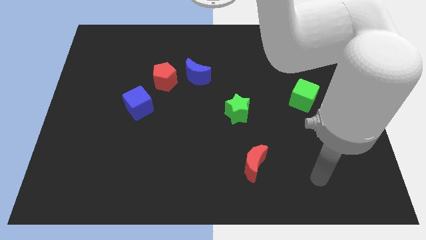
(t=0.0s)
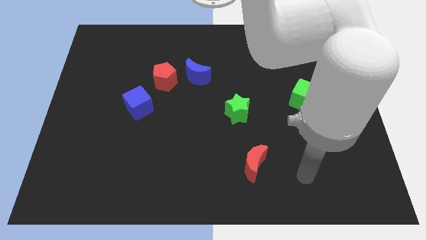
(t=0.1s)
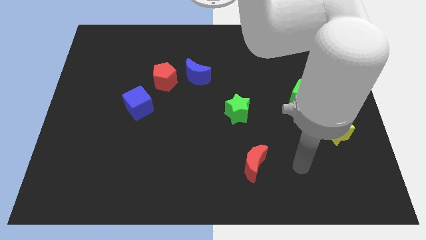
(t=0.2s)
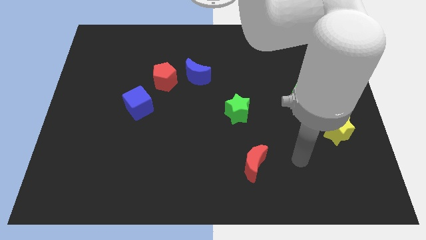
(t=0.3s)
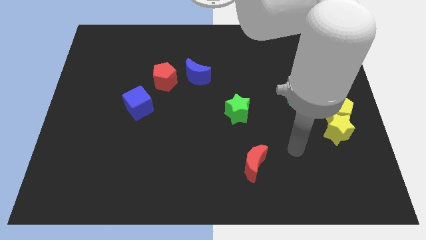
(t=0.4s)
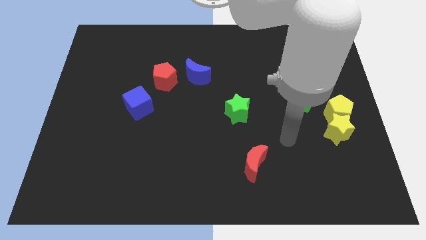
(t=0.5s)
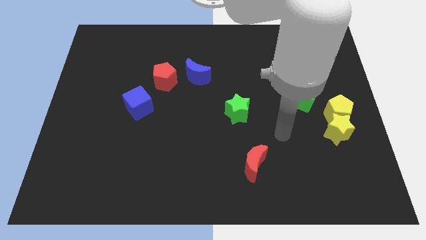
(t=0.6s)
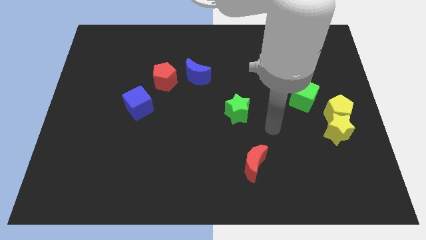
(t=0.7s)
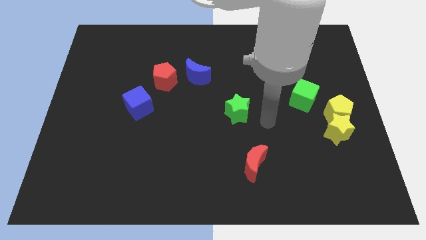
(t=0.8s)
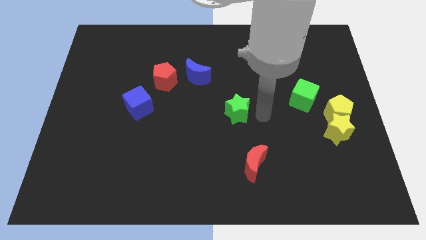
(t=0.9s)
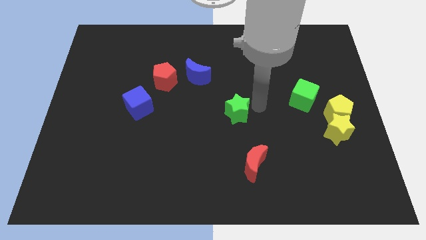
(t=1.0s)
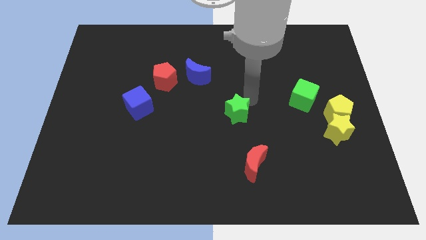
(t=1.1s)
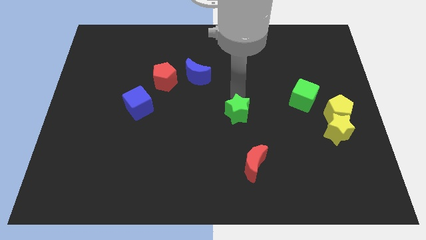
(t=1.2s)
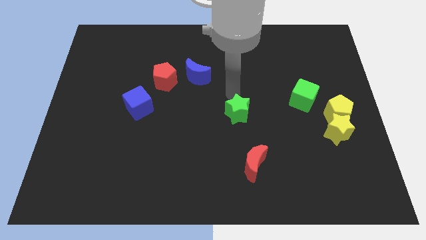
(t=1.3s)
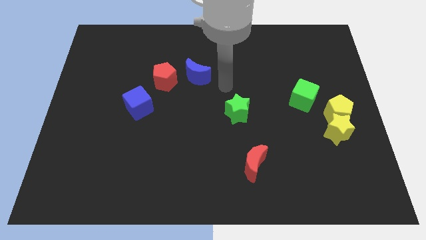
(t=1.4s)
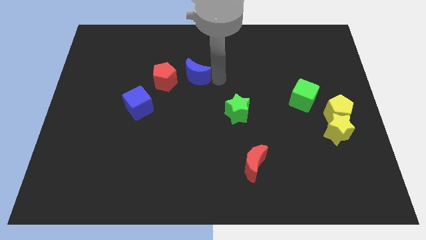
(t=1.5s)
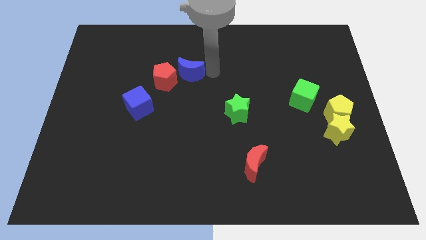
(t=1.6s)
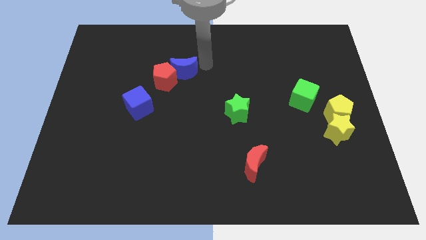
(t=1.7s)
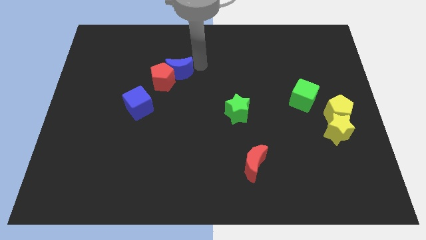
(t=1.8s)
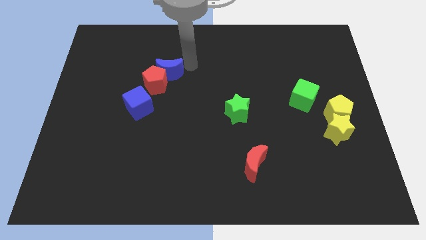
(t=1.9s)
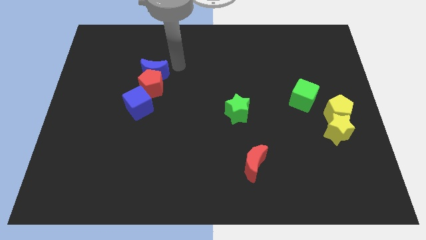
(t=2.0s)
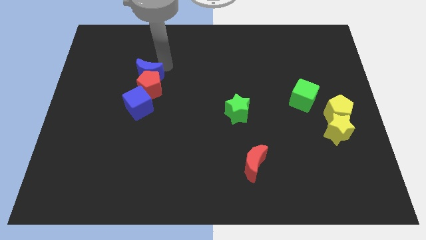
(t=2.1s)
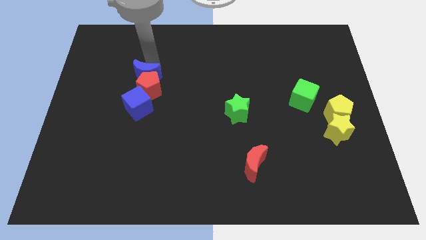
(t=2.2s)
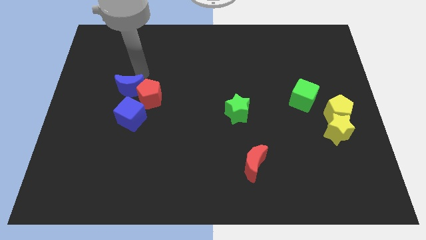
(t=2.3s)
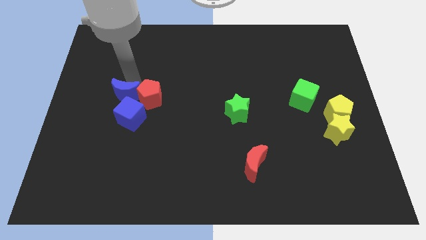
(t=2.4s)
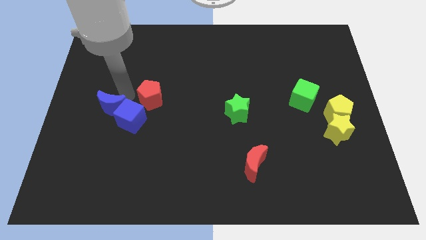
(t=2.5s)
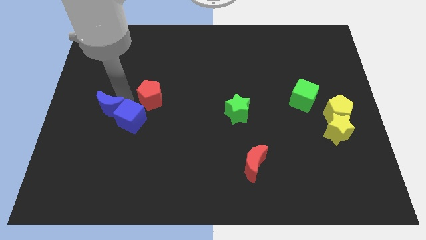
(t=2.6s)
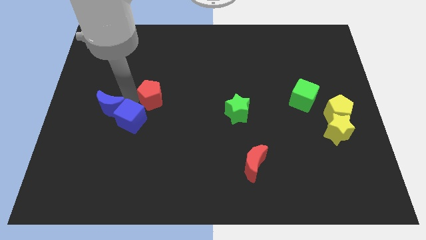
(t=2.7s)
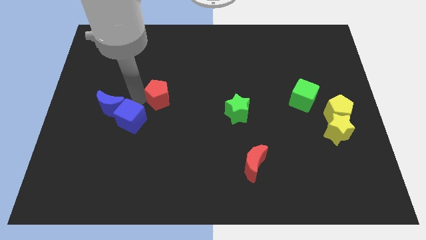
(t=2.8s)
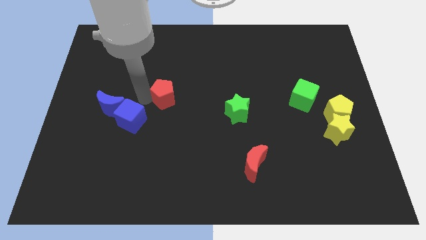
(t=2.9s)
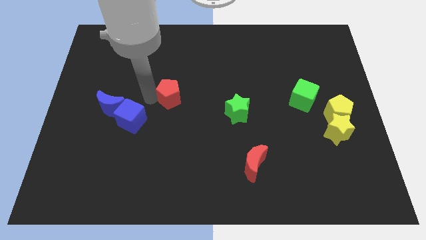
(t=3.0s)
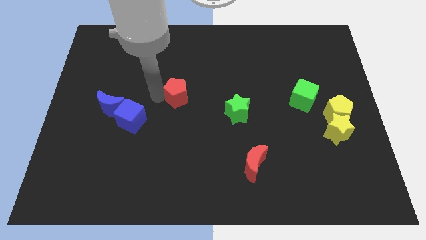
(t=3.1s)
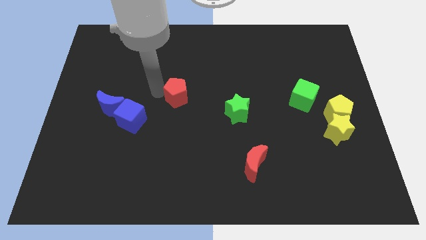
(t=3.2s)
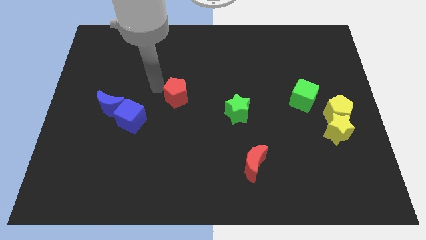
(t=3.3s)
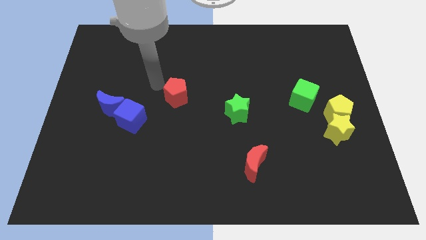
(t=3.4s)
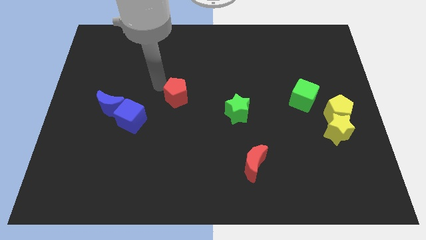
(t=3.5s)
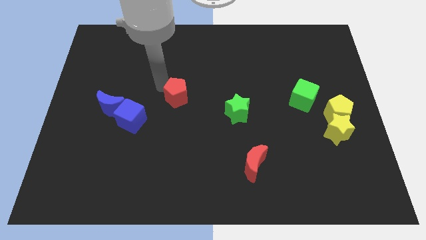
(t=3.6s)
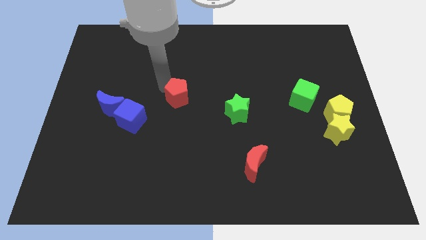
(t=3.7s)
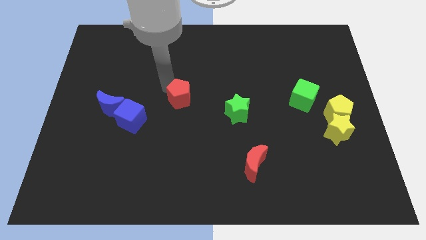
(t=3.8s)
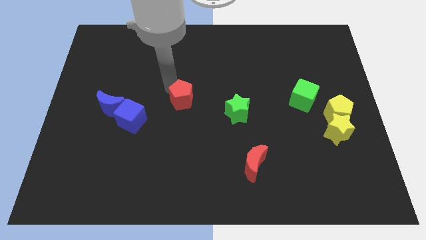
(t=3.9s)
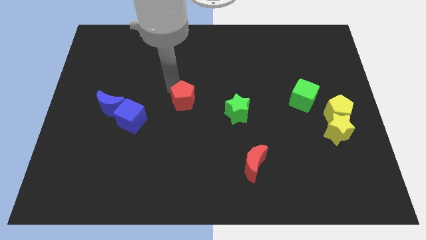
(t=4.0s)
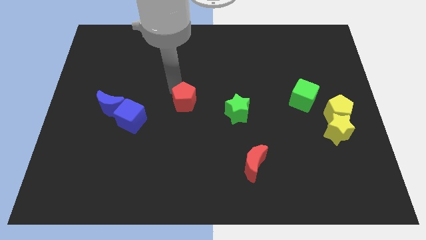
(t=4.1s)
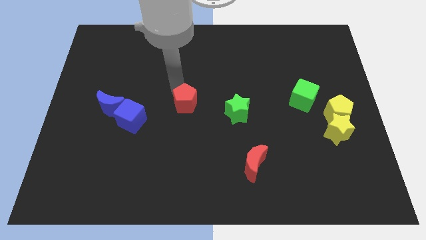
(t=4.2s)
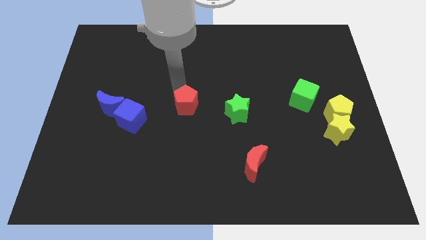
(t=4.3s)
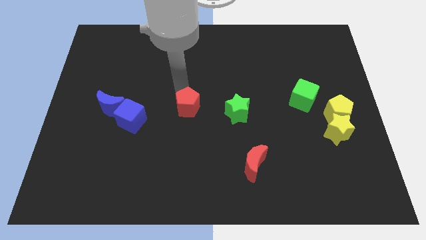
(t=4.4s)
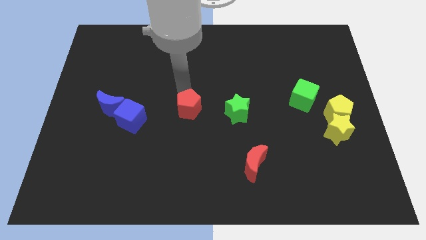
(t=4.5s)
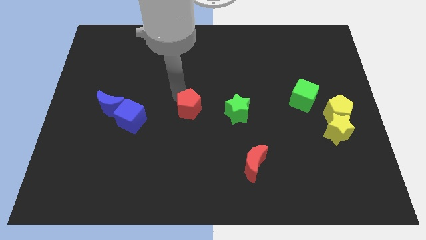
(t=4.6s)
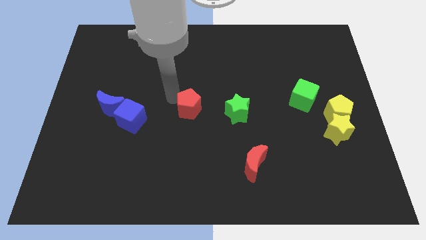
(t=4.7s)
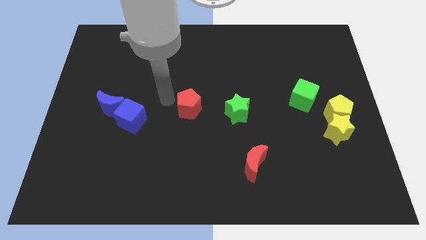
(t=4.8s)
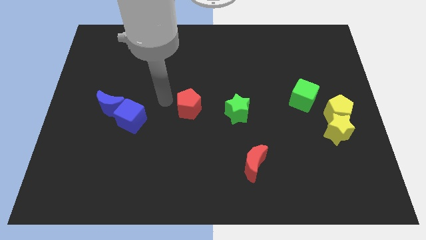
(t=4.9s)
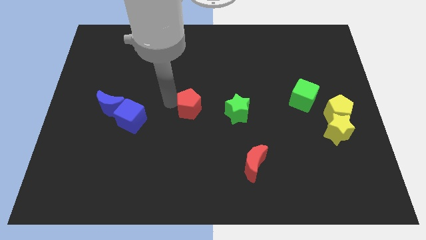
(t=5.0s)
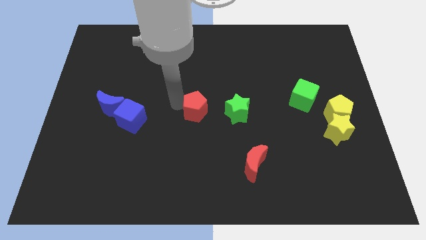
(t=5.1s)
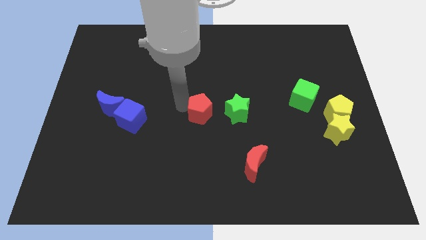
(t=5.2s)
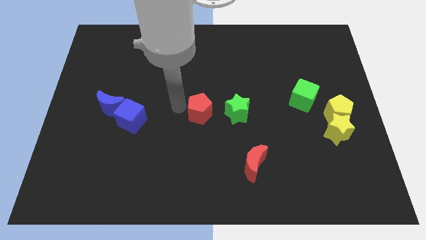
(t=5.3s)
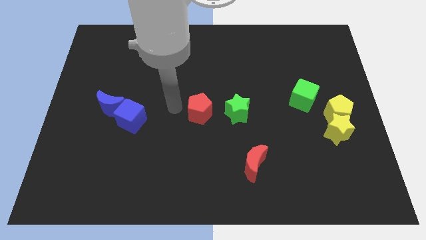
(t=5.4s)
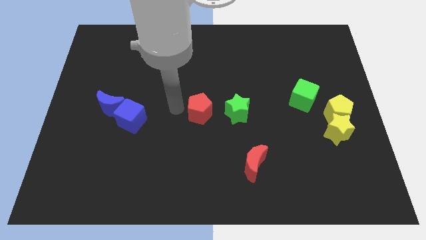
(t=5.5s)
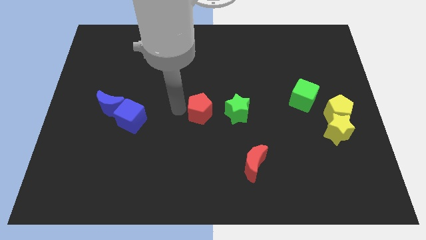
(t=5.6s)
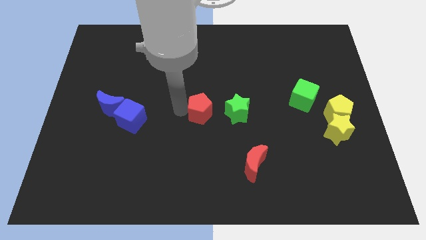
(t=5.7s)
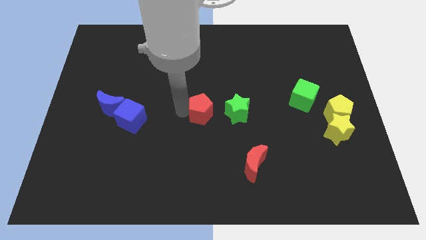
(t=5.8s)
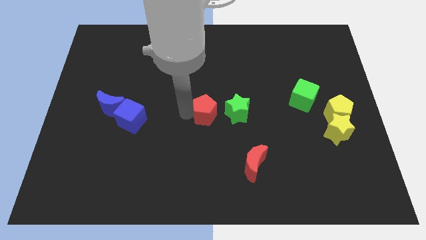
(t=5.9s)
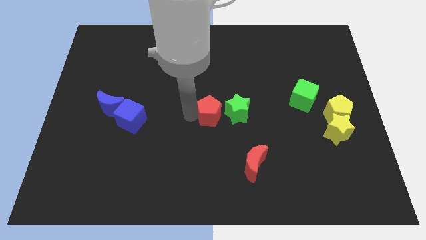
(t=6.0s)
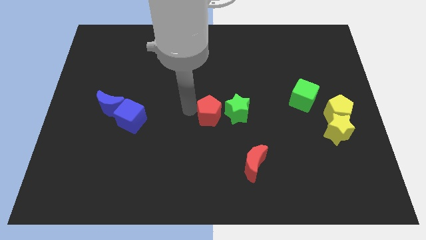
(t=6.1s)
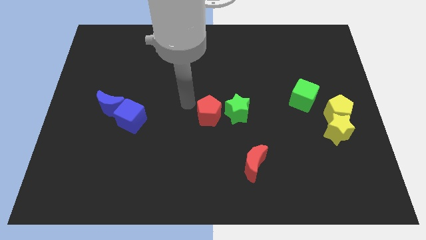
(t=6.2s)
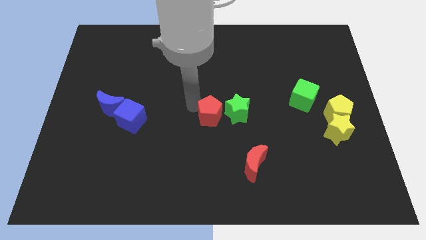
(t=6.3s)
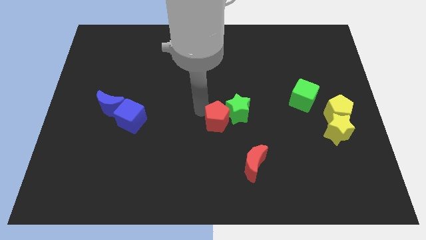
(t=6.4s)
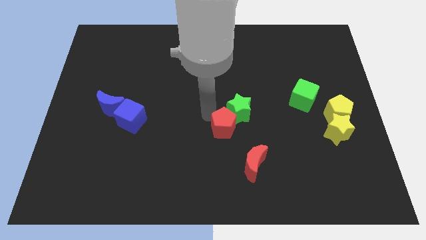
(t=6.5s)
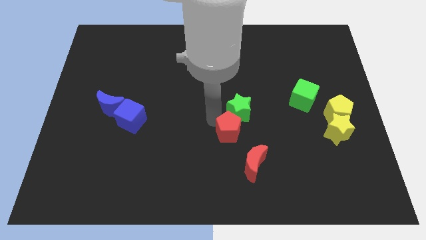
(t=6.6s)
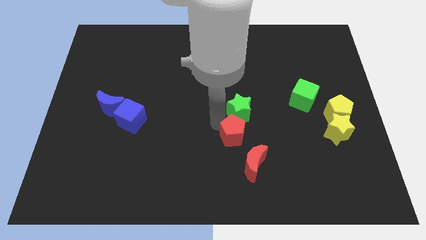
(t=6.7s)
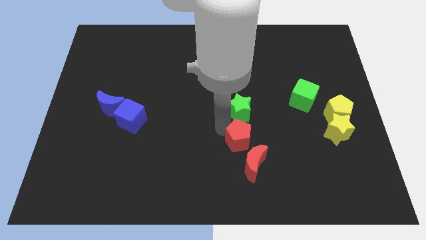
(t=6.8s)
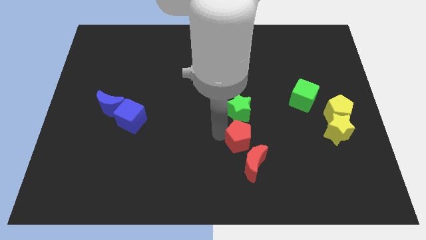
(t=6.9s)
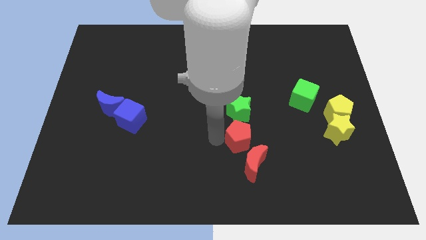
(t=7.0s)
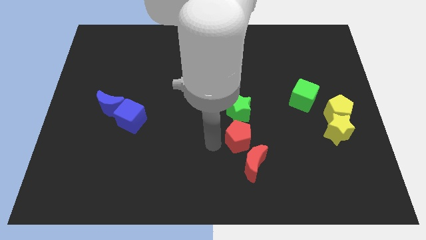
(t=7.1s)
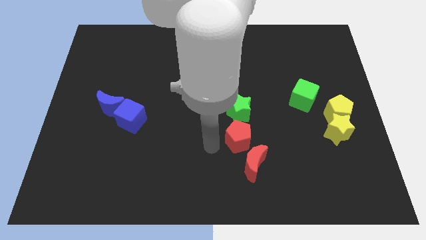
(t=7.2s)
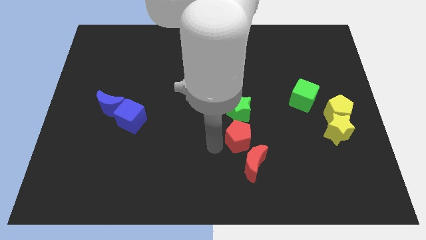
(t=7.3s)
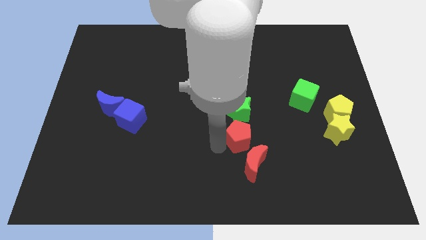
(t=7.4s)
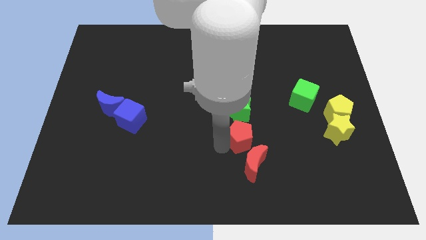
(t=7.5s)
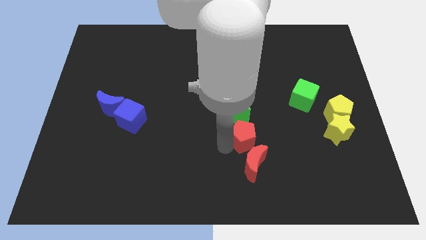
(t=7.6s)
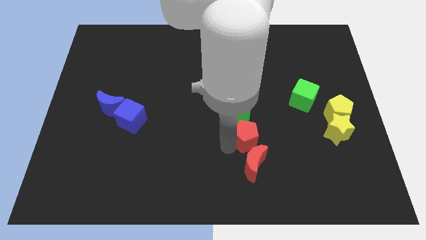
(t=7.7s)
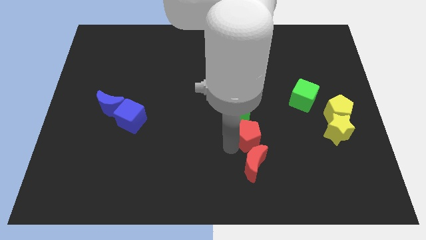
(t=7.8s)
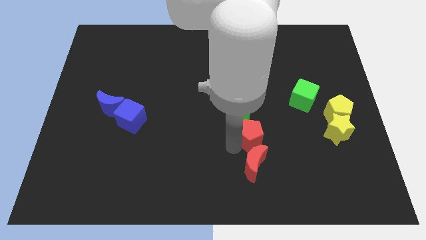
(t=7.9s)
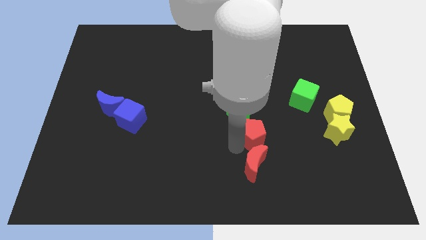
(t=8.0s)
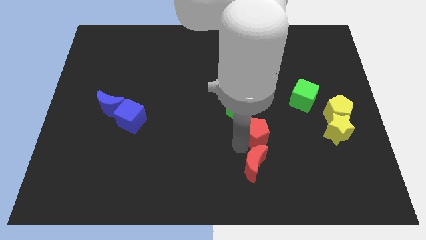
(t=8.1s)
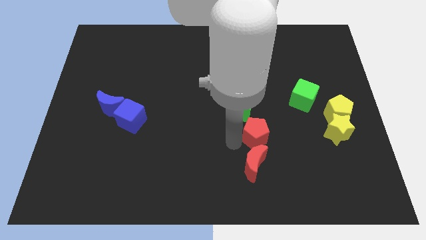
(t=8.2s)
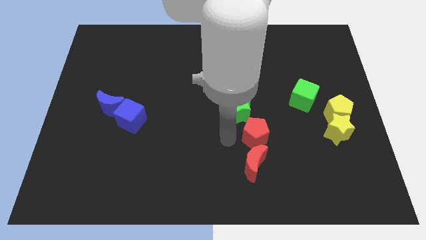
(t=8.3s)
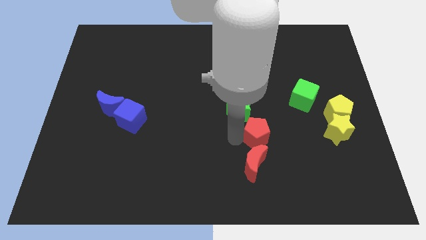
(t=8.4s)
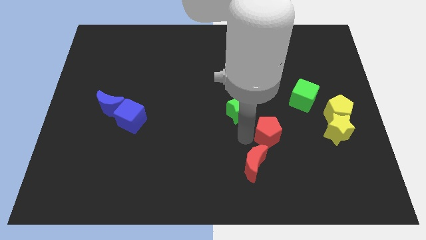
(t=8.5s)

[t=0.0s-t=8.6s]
move the red pentagon left of the yellow star
